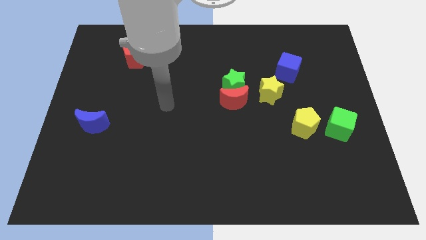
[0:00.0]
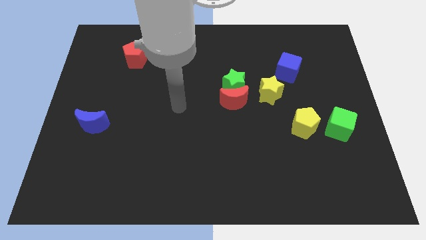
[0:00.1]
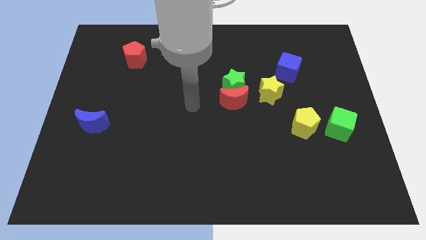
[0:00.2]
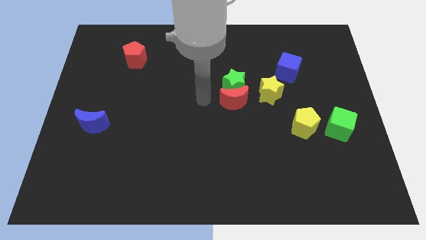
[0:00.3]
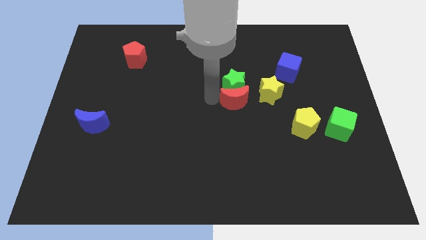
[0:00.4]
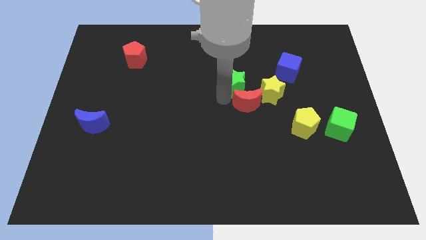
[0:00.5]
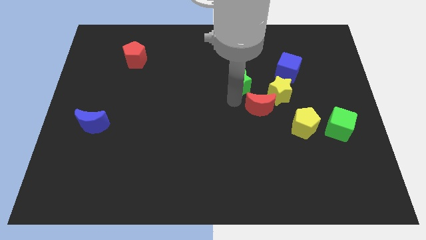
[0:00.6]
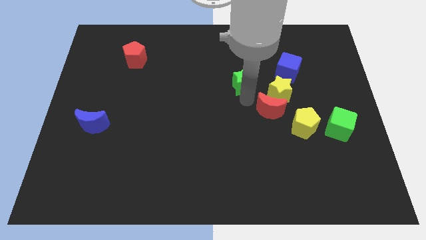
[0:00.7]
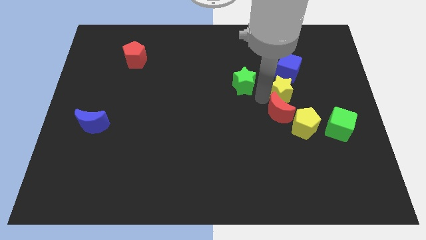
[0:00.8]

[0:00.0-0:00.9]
pull the green star apart from the red moon and yellow star

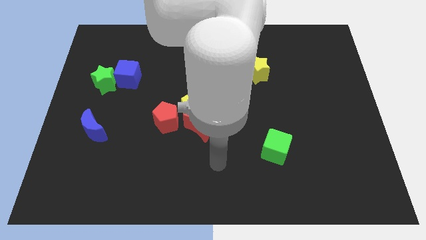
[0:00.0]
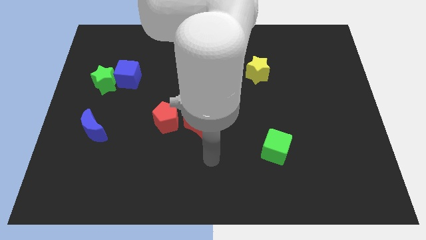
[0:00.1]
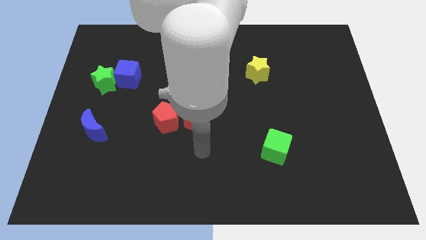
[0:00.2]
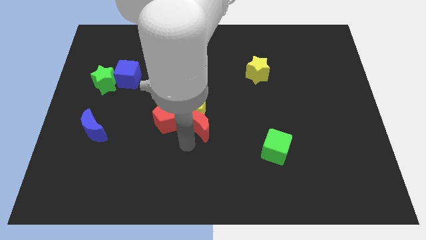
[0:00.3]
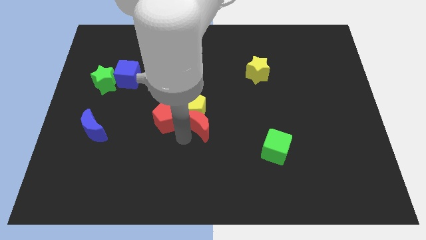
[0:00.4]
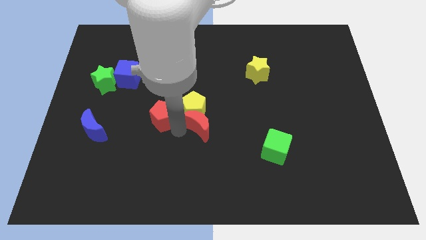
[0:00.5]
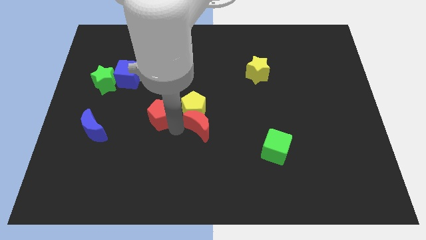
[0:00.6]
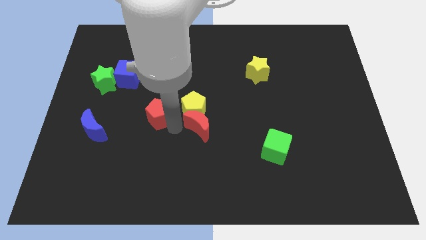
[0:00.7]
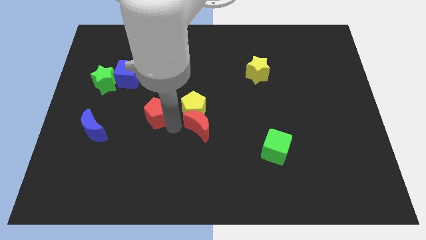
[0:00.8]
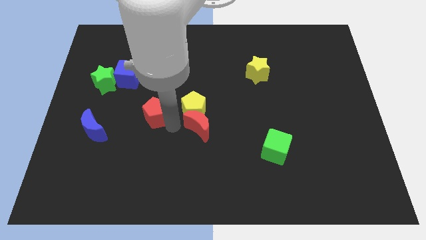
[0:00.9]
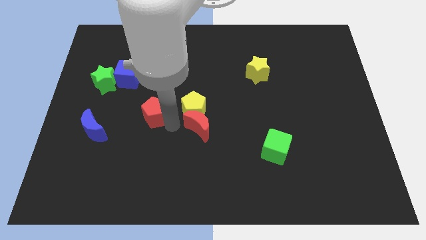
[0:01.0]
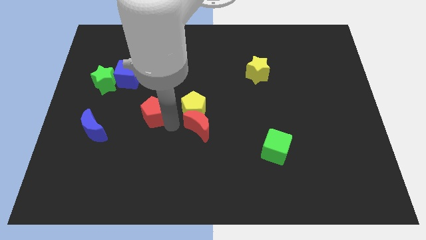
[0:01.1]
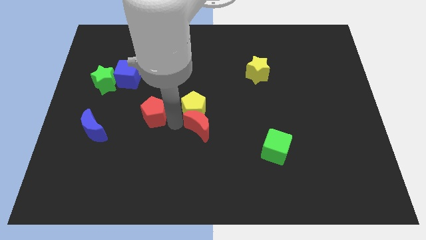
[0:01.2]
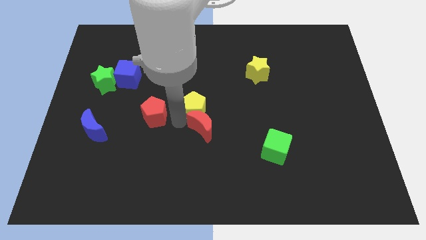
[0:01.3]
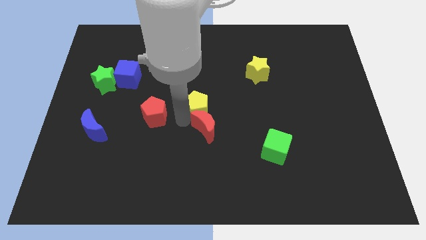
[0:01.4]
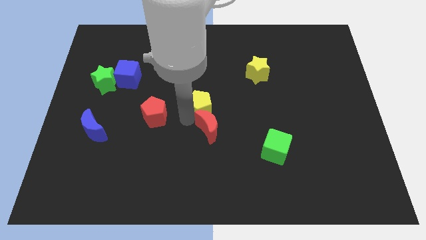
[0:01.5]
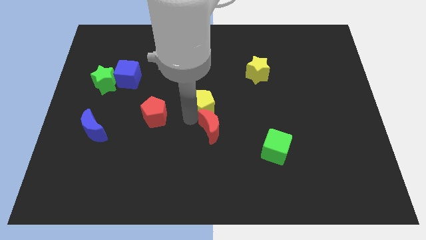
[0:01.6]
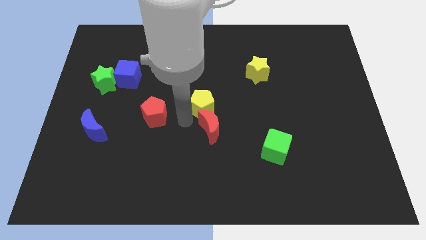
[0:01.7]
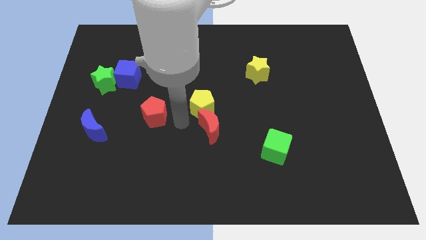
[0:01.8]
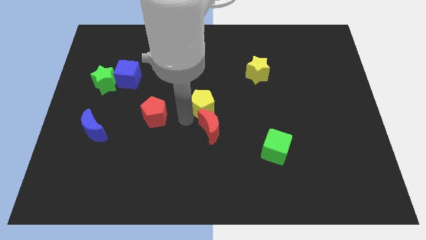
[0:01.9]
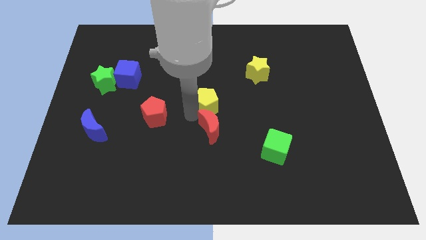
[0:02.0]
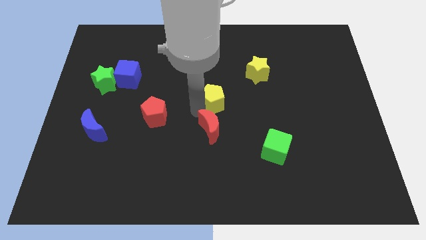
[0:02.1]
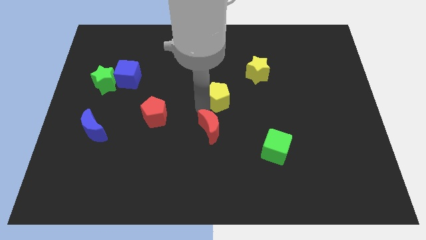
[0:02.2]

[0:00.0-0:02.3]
separate the yellow pentagon from the red moon and red pentagon

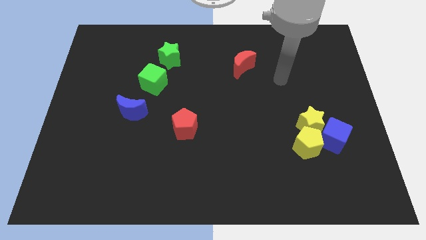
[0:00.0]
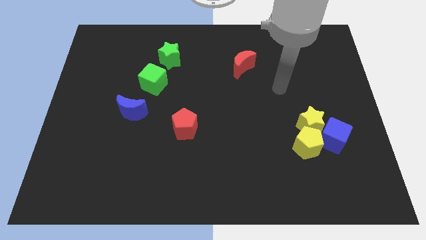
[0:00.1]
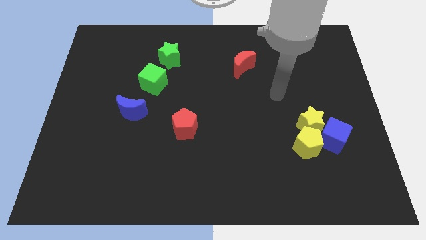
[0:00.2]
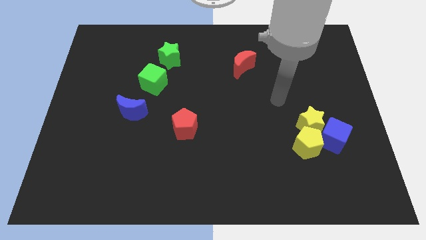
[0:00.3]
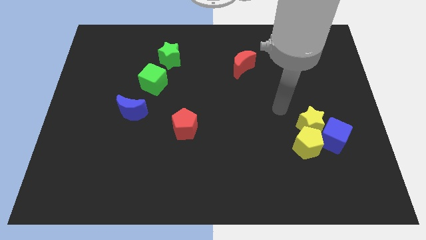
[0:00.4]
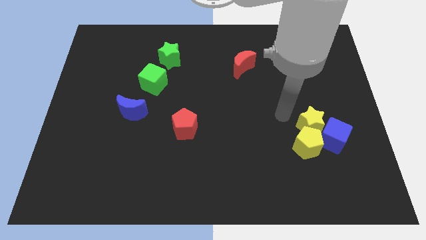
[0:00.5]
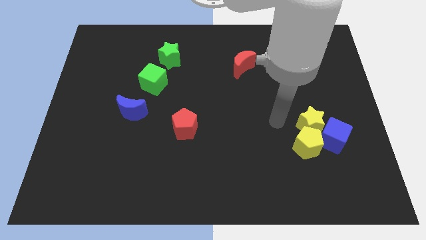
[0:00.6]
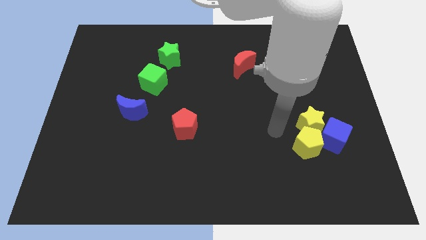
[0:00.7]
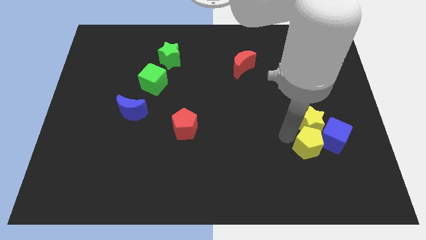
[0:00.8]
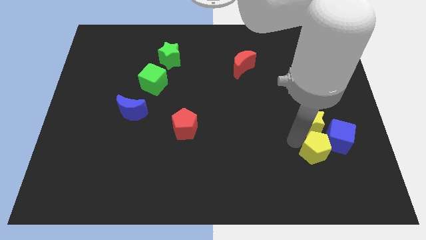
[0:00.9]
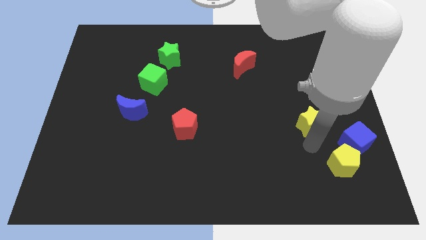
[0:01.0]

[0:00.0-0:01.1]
pull the yellow star apart from the yellow pentagon and blue cube

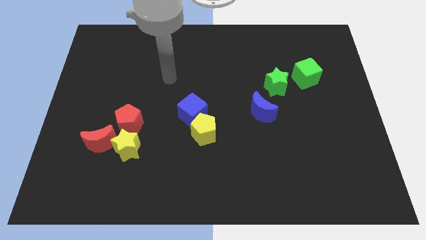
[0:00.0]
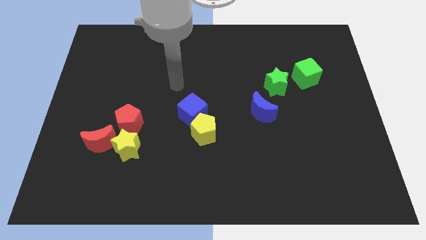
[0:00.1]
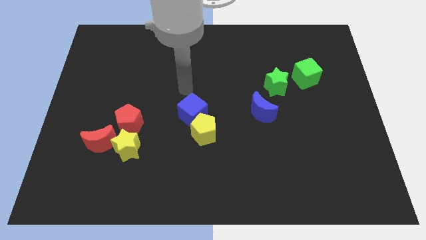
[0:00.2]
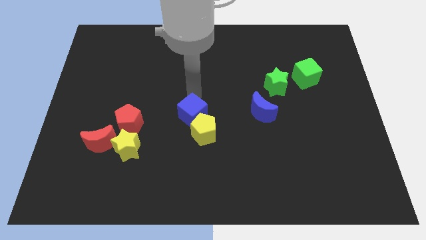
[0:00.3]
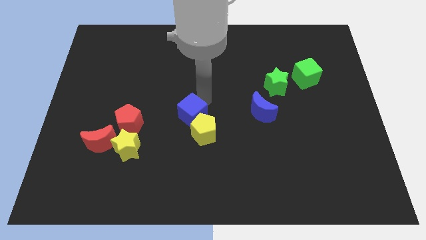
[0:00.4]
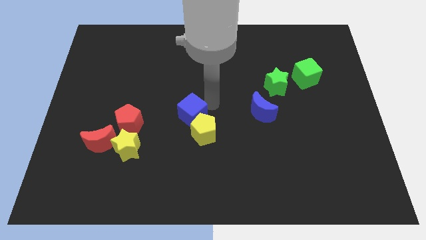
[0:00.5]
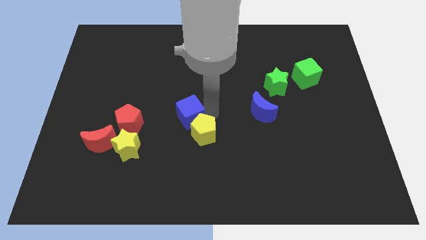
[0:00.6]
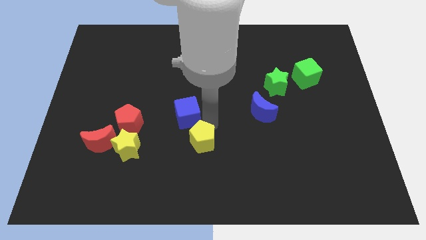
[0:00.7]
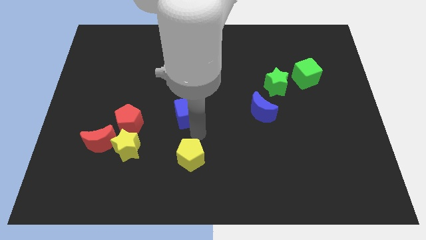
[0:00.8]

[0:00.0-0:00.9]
separate the blue cube from the yellow pentagon

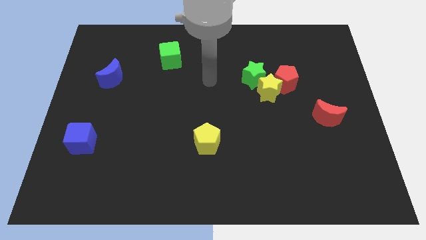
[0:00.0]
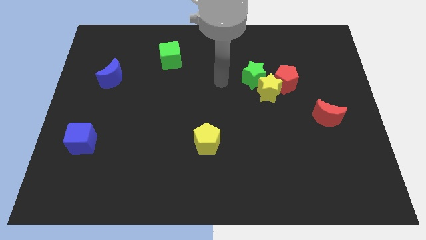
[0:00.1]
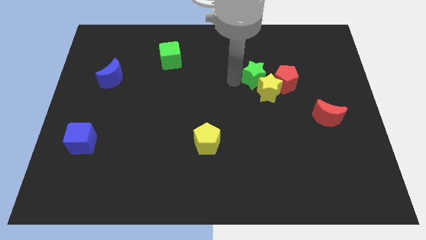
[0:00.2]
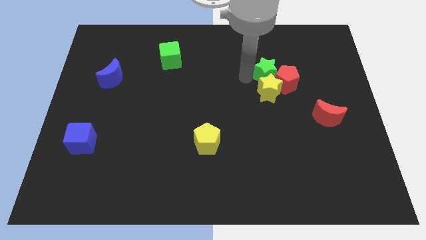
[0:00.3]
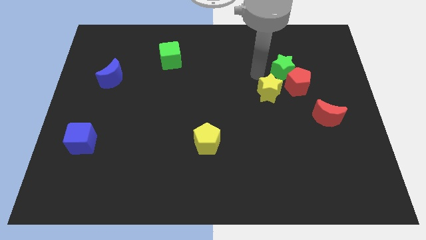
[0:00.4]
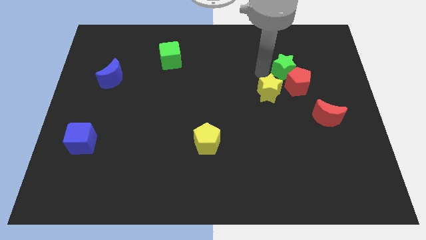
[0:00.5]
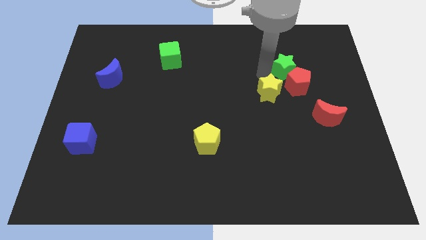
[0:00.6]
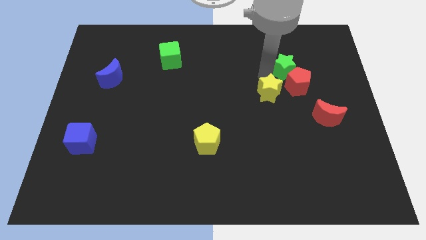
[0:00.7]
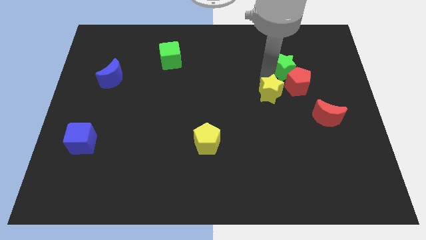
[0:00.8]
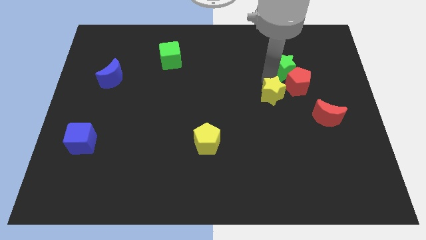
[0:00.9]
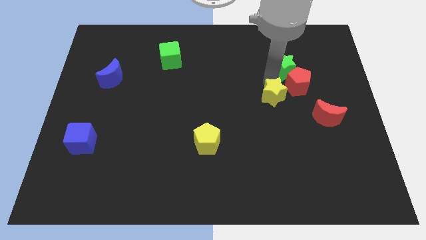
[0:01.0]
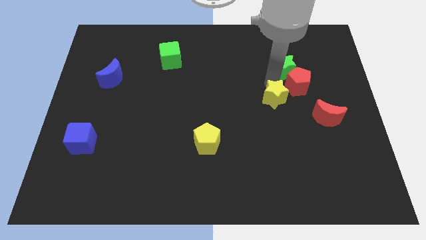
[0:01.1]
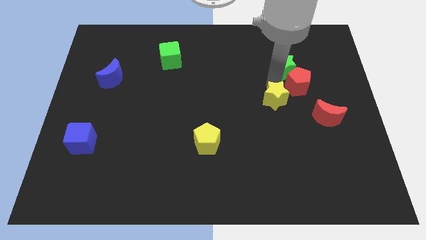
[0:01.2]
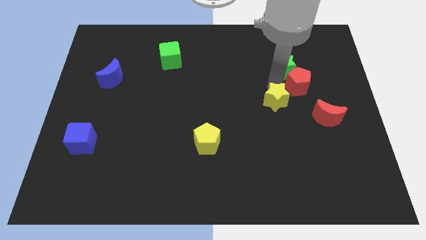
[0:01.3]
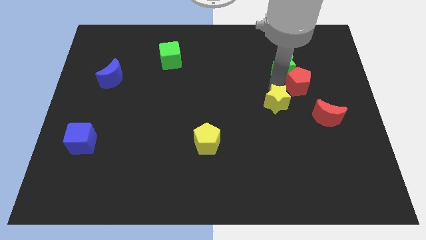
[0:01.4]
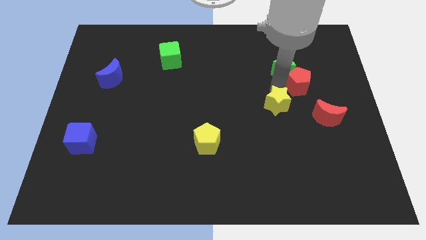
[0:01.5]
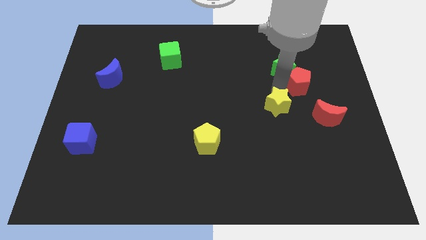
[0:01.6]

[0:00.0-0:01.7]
move the yellow star away from the red pentagon and green star

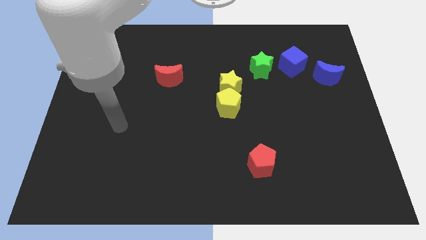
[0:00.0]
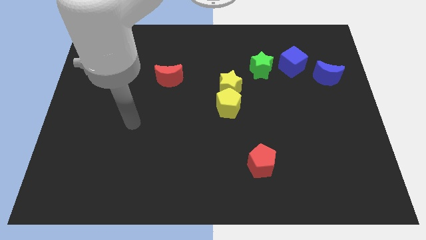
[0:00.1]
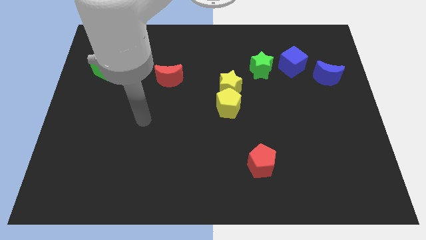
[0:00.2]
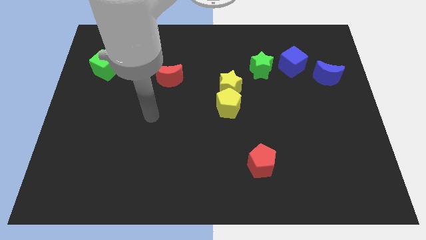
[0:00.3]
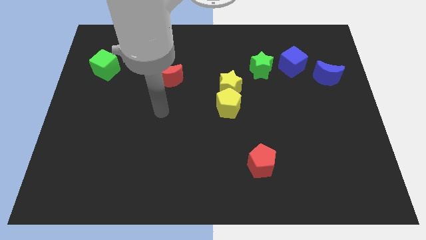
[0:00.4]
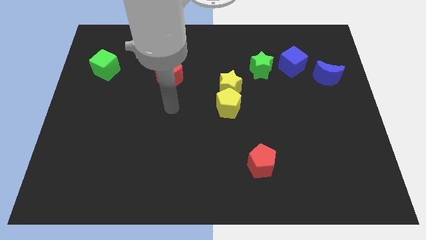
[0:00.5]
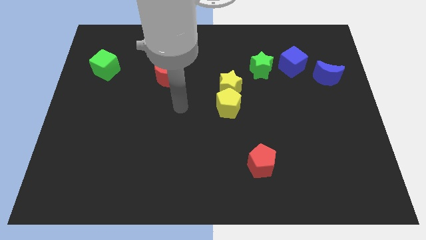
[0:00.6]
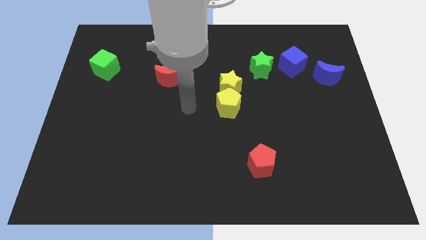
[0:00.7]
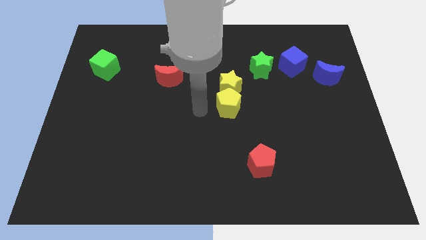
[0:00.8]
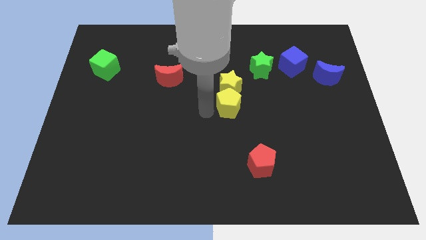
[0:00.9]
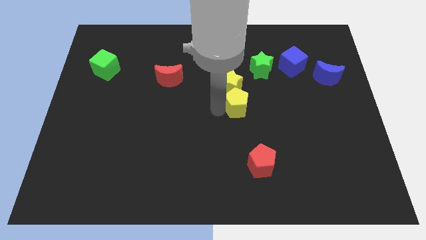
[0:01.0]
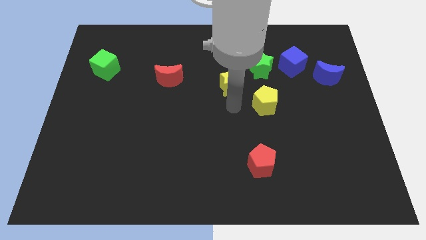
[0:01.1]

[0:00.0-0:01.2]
pull the yellow star apart from the yellow pentagon

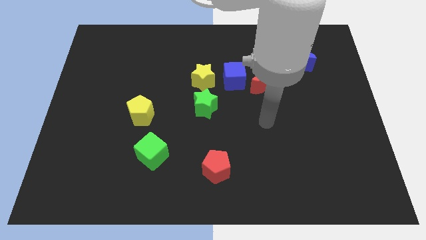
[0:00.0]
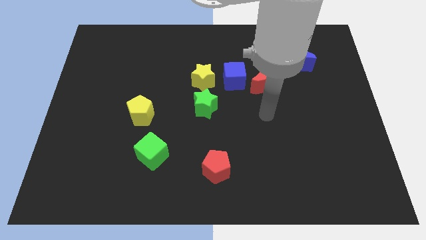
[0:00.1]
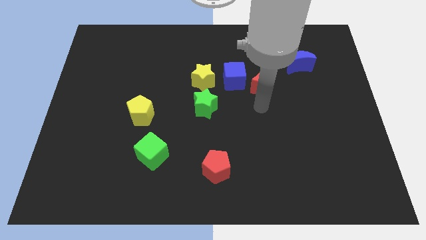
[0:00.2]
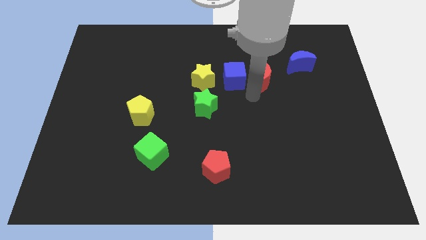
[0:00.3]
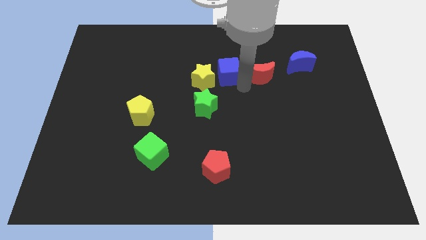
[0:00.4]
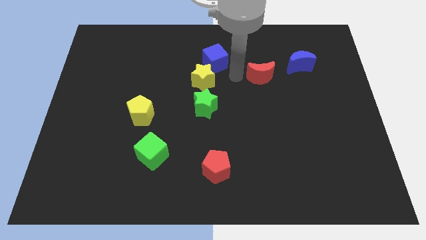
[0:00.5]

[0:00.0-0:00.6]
pull the red moon apart from the blue cube

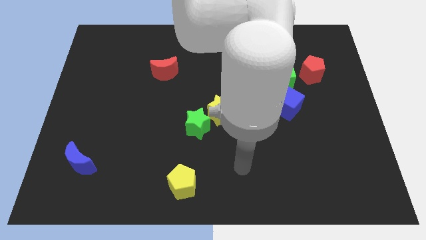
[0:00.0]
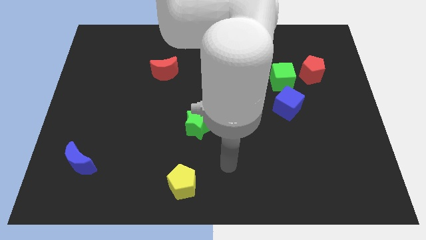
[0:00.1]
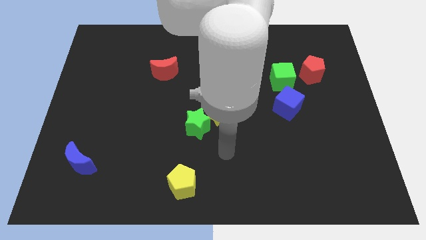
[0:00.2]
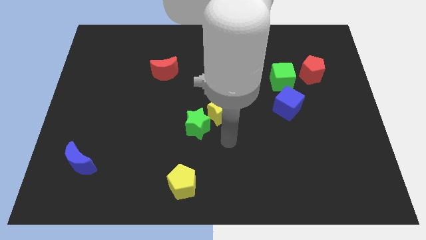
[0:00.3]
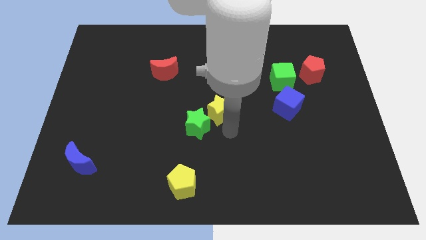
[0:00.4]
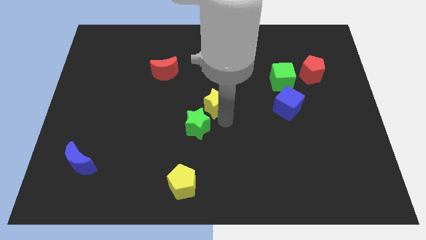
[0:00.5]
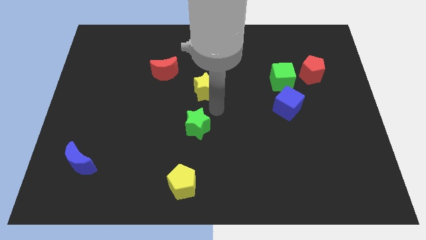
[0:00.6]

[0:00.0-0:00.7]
move the green star away from the yellow star
